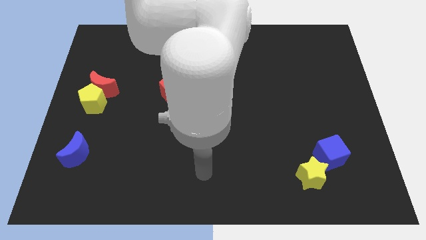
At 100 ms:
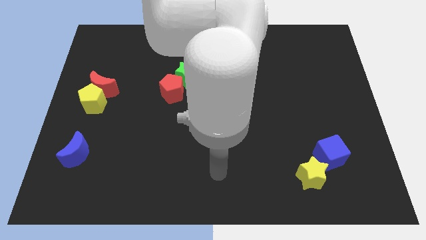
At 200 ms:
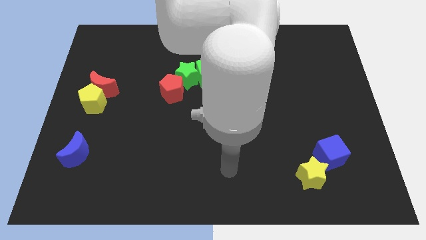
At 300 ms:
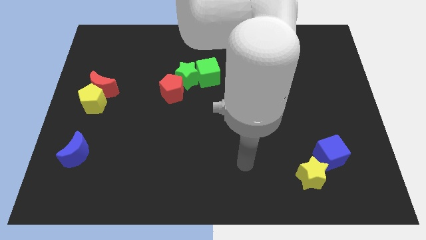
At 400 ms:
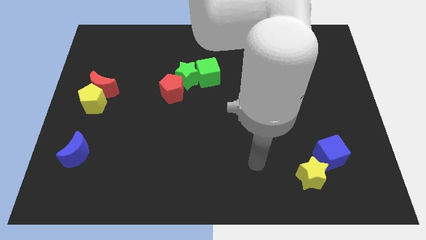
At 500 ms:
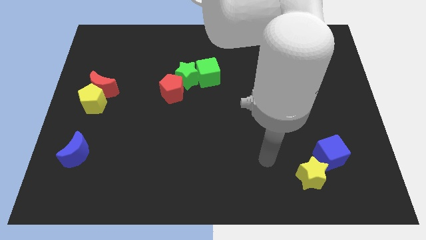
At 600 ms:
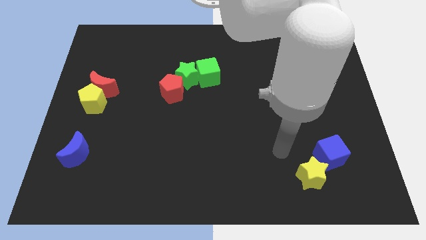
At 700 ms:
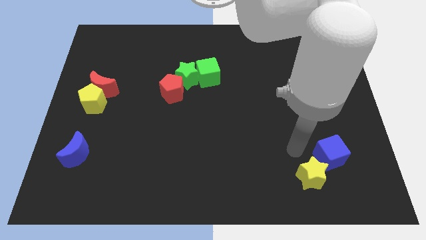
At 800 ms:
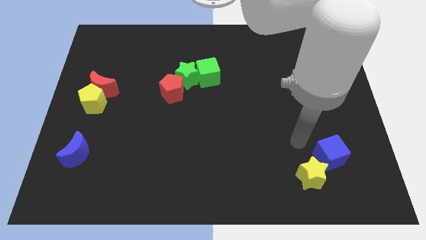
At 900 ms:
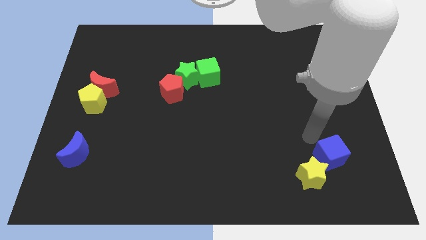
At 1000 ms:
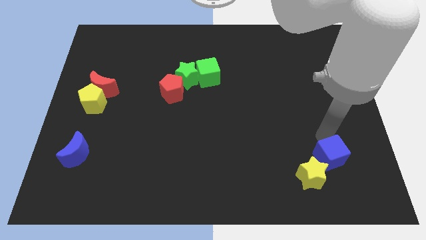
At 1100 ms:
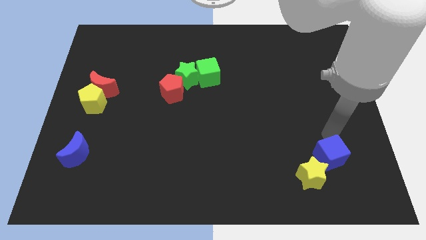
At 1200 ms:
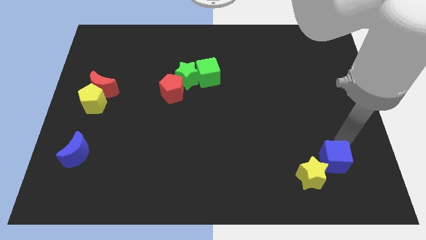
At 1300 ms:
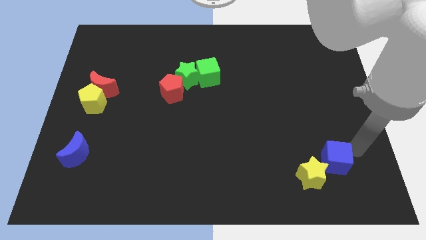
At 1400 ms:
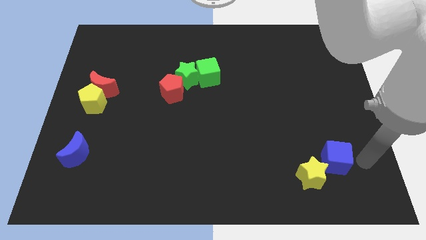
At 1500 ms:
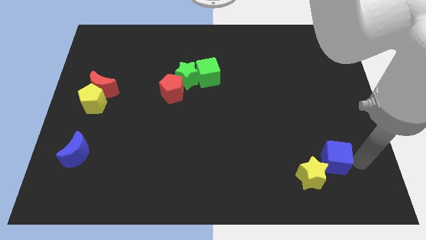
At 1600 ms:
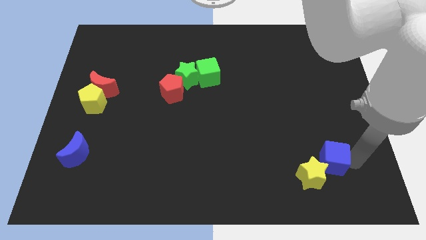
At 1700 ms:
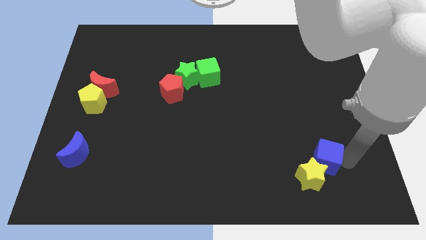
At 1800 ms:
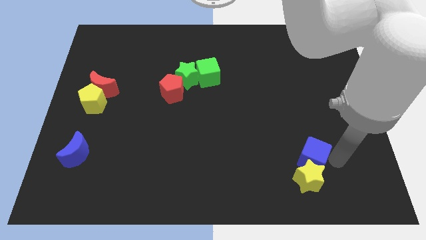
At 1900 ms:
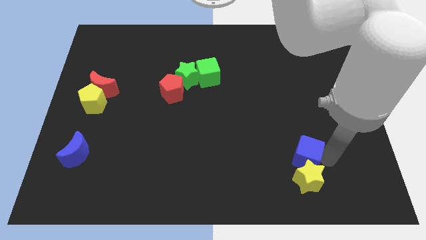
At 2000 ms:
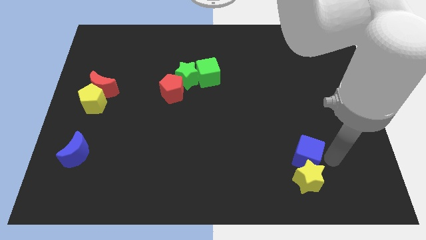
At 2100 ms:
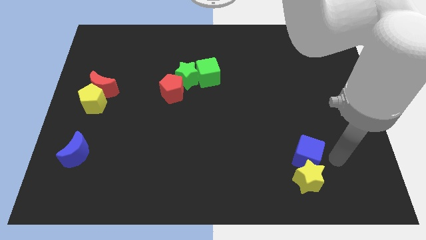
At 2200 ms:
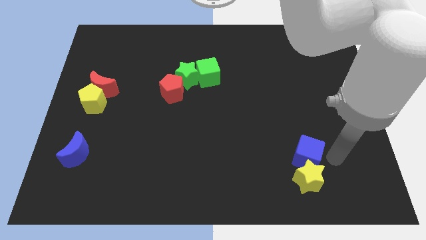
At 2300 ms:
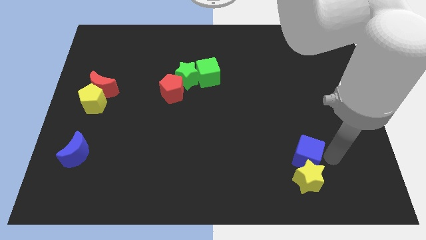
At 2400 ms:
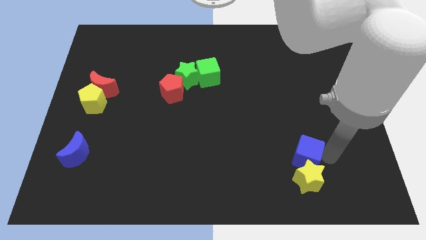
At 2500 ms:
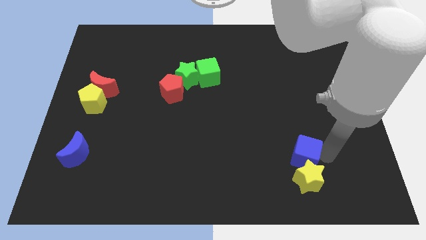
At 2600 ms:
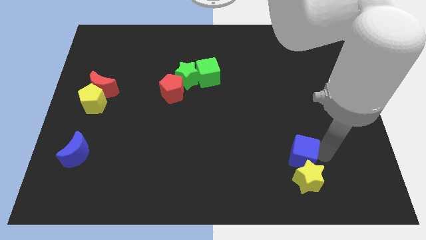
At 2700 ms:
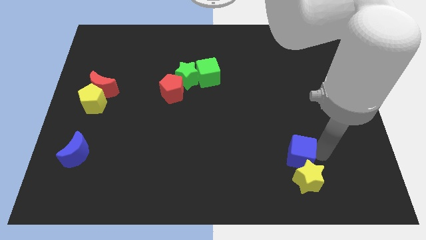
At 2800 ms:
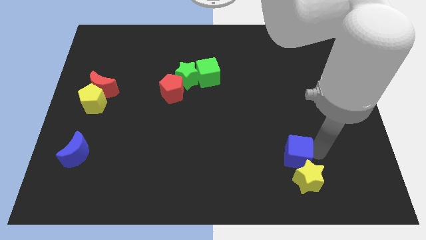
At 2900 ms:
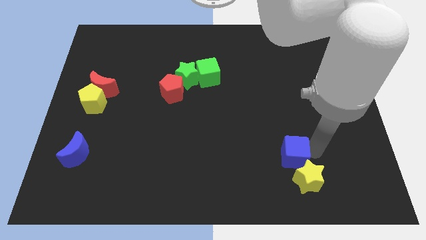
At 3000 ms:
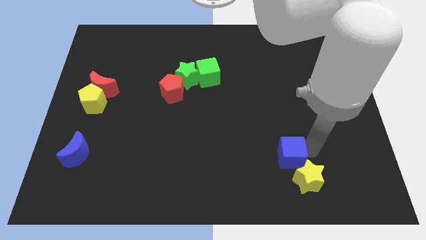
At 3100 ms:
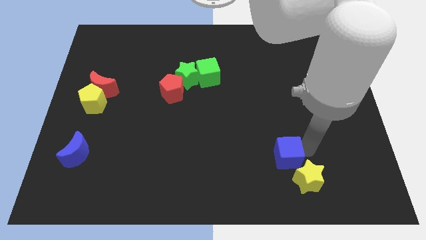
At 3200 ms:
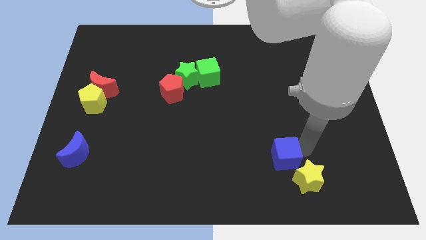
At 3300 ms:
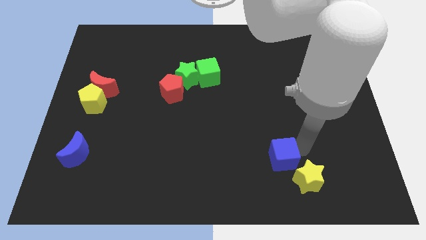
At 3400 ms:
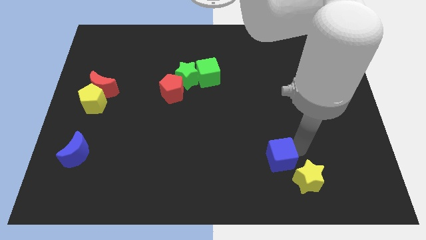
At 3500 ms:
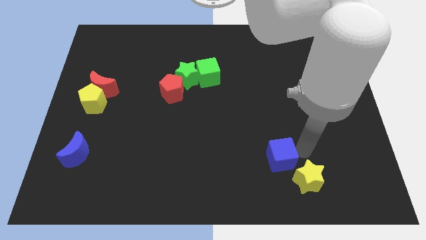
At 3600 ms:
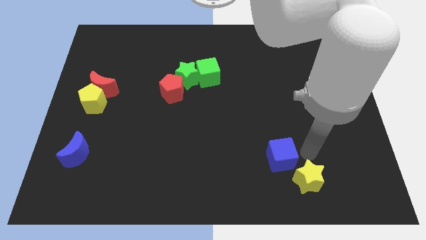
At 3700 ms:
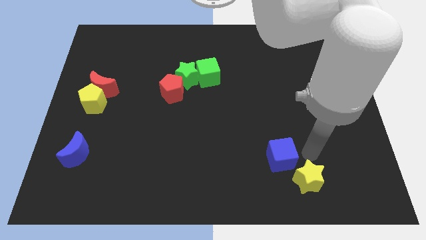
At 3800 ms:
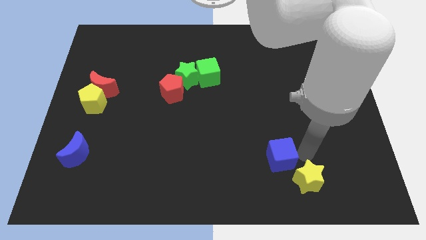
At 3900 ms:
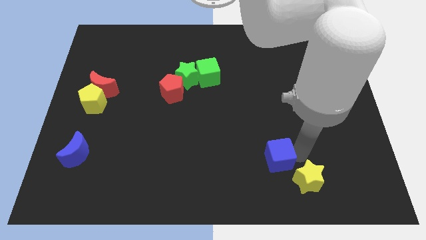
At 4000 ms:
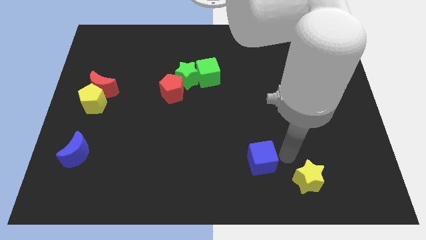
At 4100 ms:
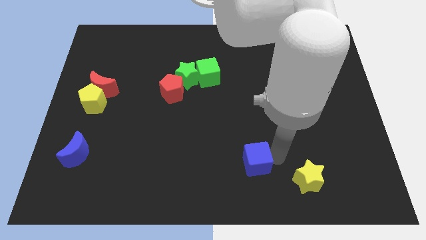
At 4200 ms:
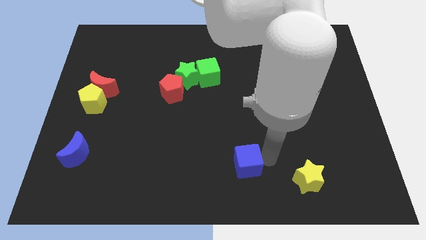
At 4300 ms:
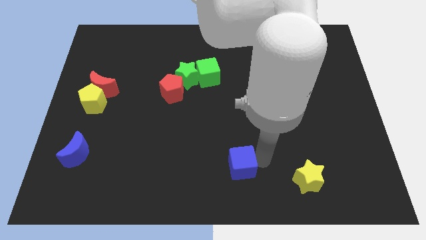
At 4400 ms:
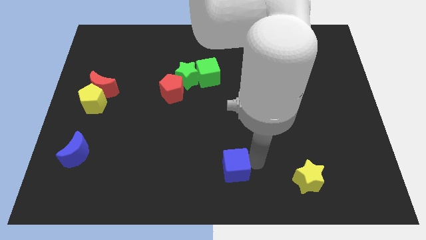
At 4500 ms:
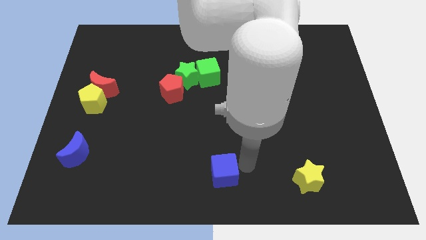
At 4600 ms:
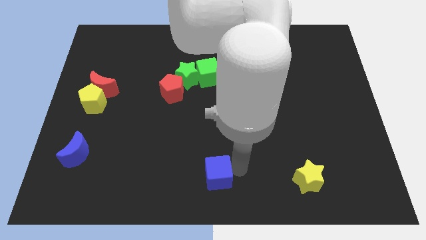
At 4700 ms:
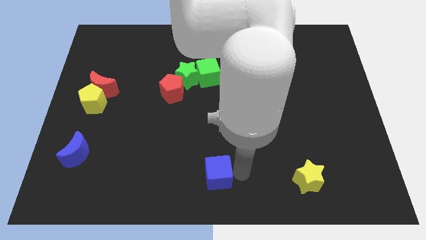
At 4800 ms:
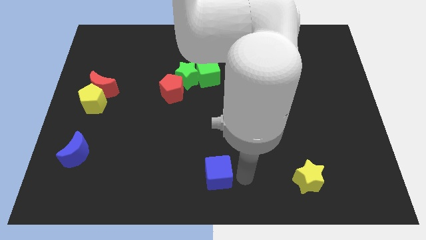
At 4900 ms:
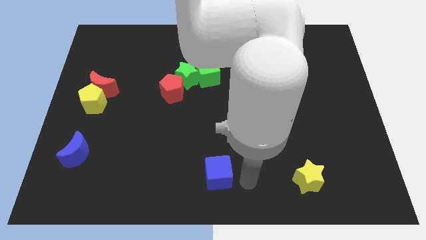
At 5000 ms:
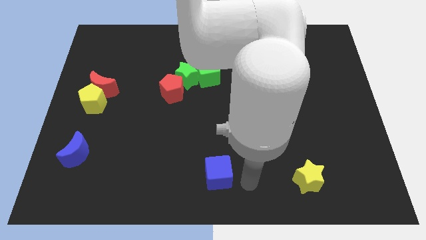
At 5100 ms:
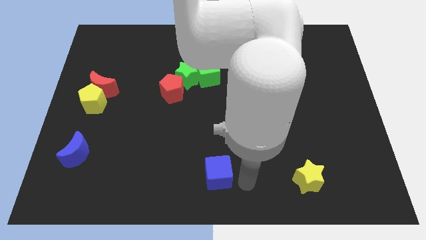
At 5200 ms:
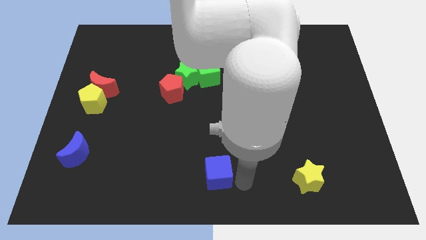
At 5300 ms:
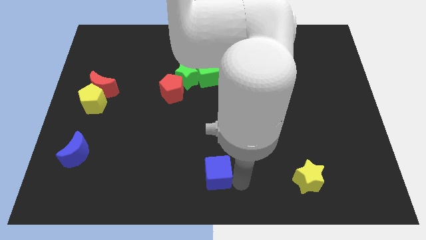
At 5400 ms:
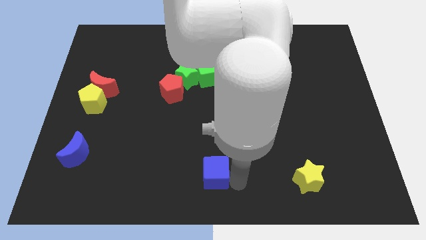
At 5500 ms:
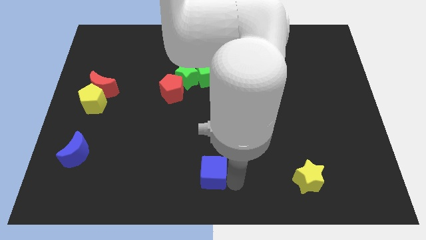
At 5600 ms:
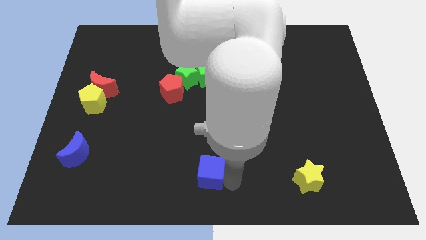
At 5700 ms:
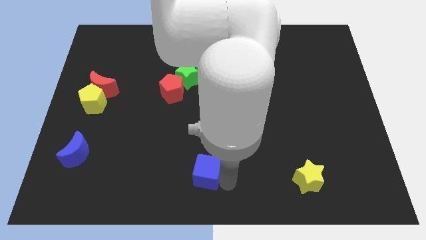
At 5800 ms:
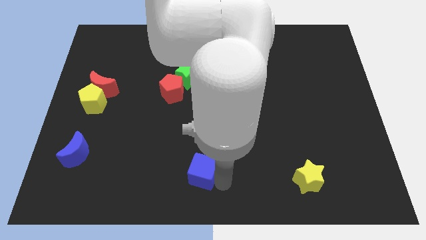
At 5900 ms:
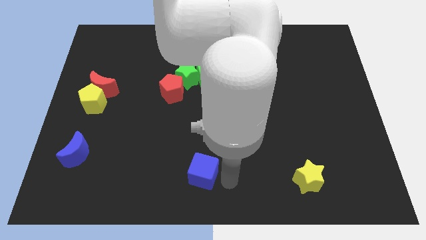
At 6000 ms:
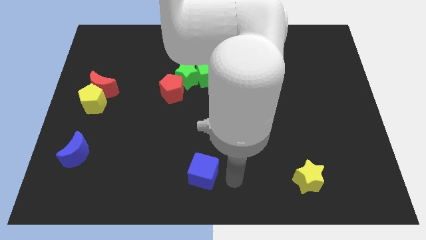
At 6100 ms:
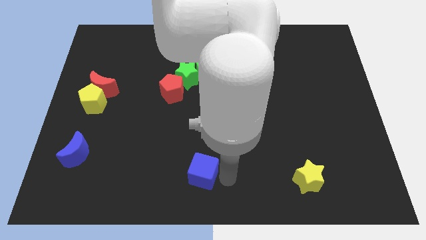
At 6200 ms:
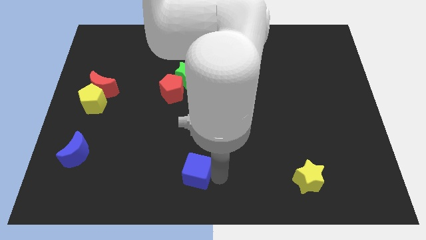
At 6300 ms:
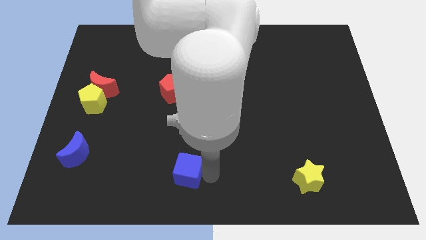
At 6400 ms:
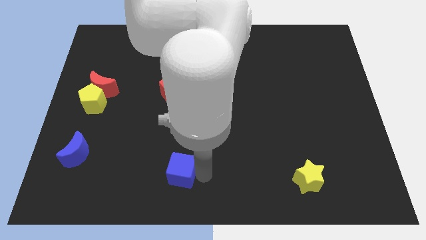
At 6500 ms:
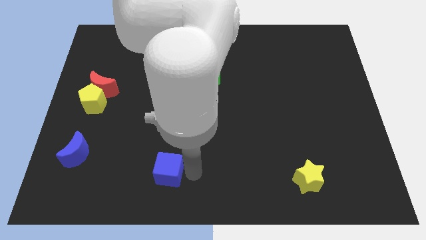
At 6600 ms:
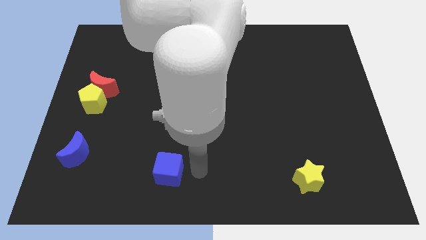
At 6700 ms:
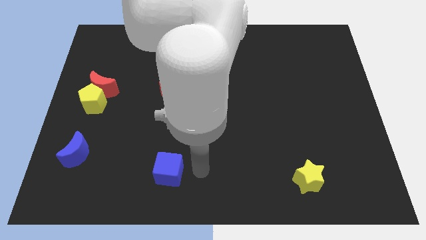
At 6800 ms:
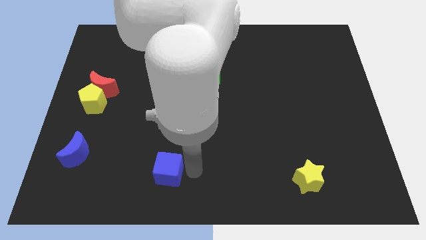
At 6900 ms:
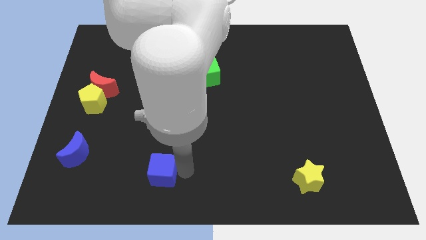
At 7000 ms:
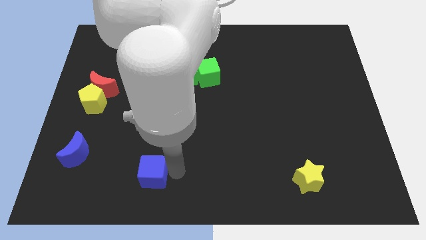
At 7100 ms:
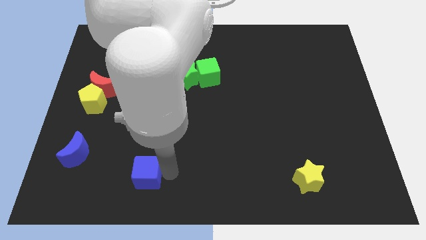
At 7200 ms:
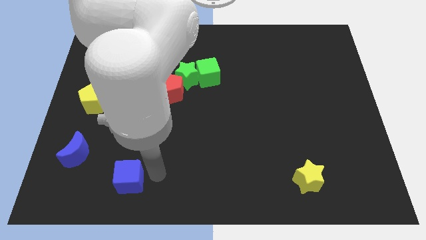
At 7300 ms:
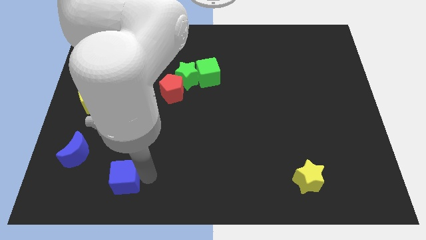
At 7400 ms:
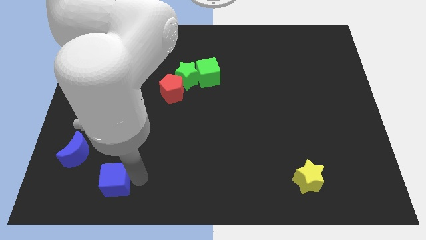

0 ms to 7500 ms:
put the blue cube to the bottom right side of the blue moon
